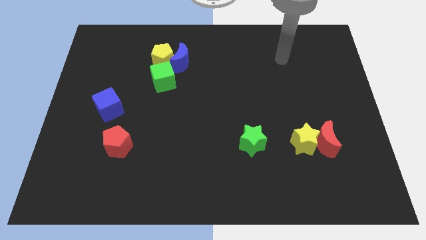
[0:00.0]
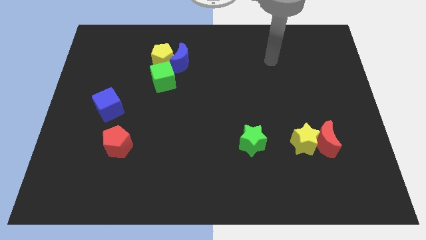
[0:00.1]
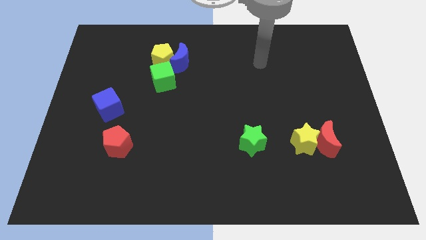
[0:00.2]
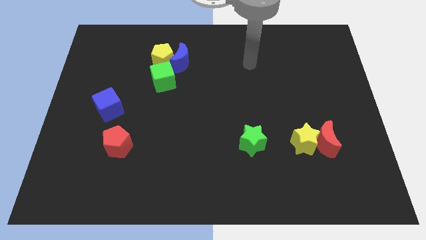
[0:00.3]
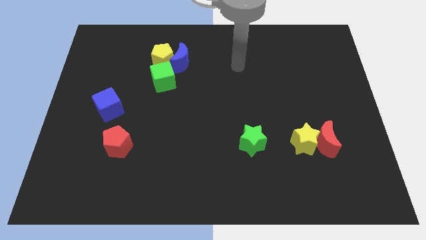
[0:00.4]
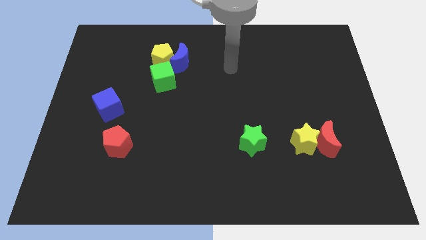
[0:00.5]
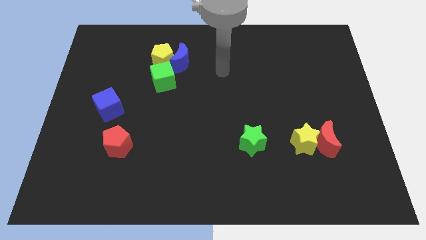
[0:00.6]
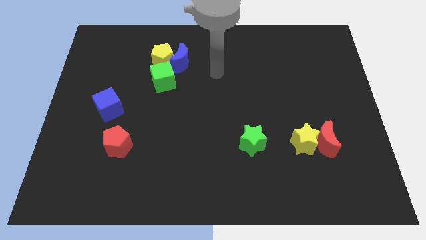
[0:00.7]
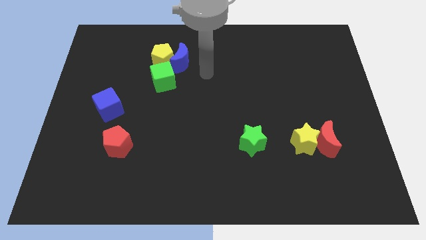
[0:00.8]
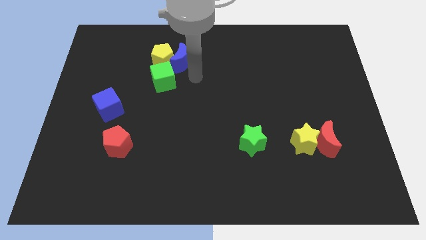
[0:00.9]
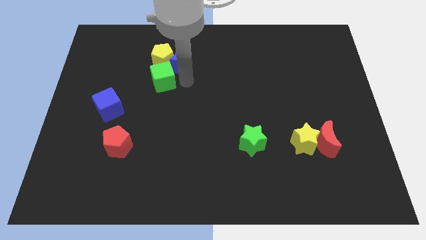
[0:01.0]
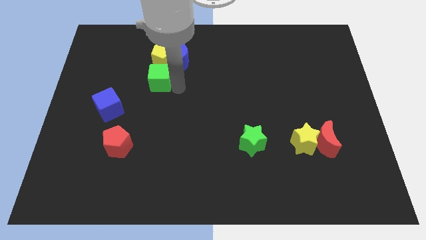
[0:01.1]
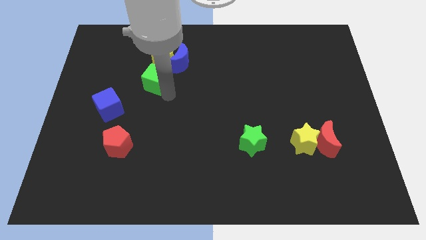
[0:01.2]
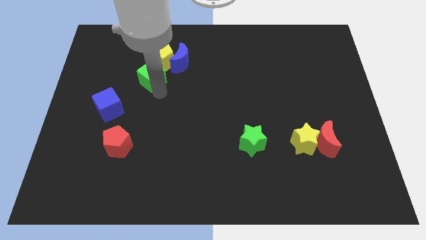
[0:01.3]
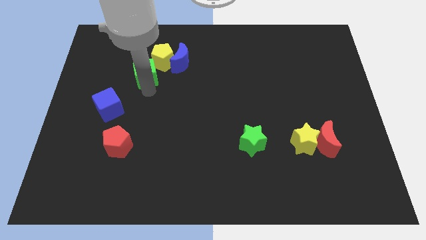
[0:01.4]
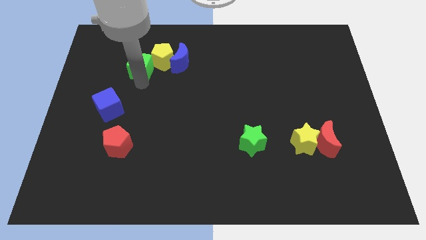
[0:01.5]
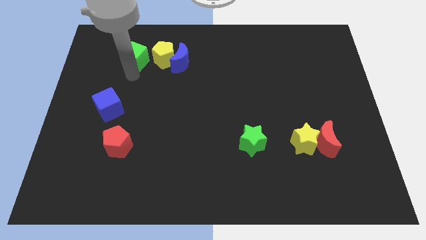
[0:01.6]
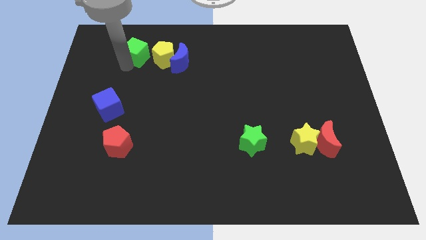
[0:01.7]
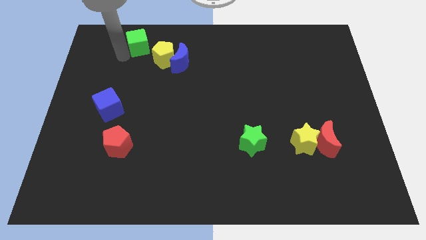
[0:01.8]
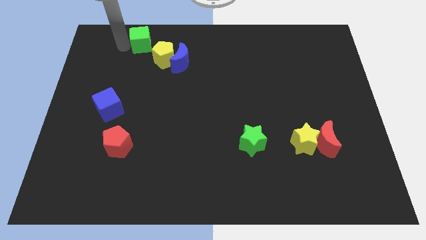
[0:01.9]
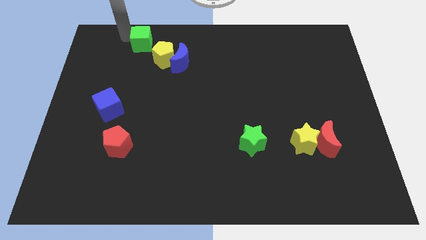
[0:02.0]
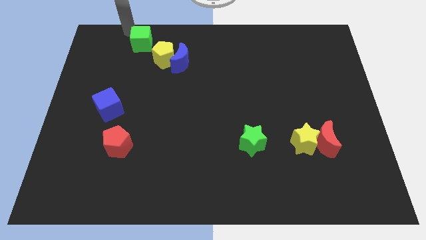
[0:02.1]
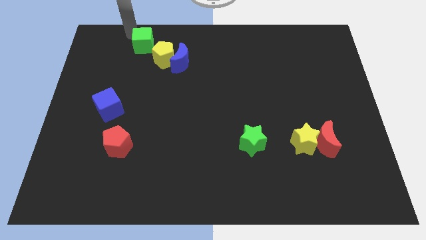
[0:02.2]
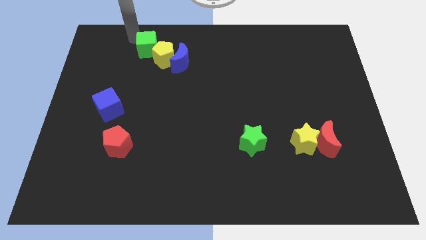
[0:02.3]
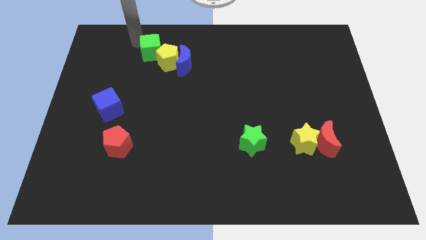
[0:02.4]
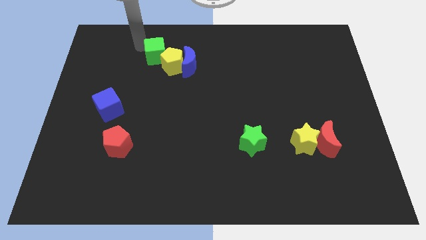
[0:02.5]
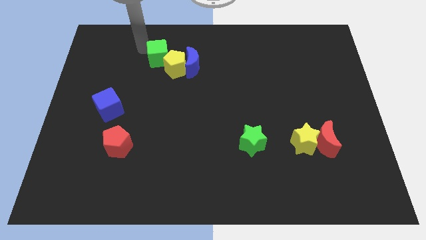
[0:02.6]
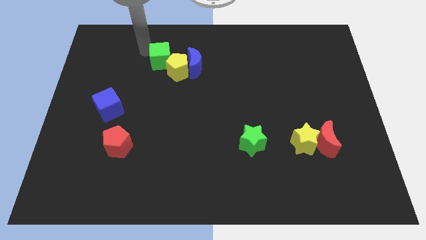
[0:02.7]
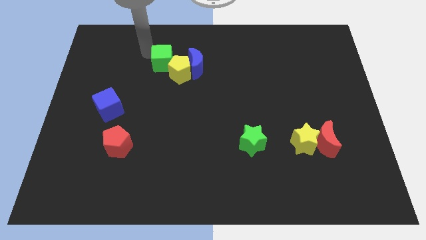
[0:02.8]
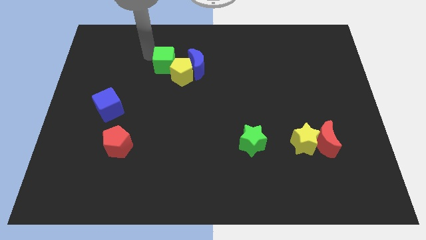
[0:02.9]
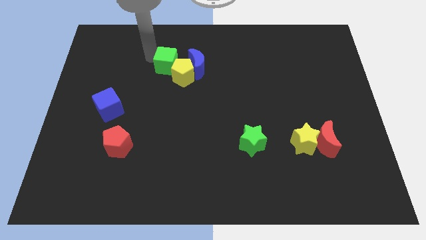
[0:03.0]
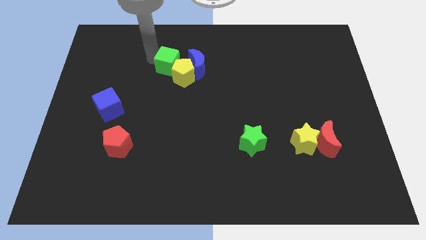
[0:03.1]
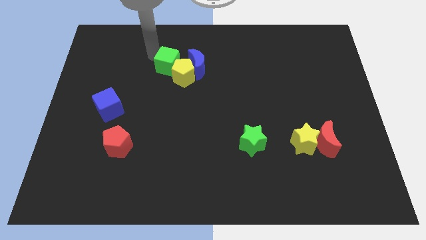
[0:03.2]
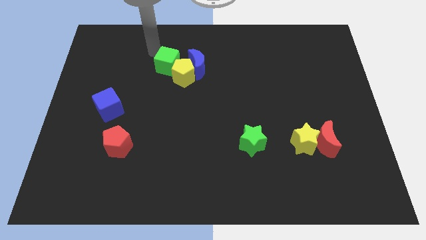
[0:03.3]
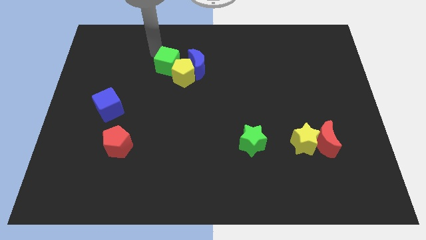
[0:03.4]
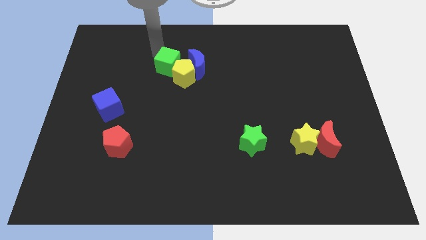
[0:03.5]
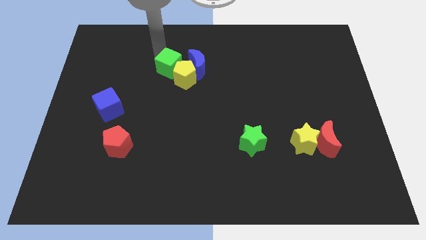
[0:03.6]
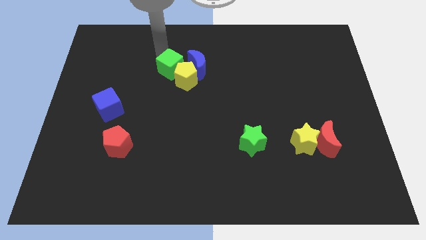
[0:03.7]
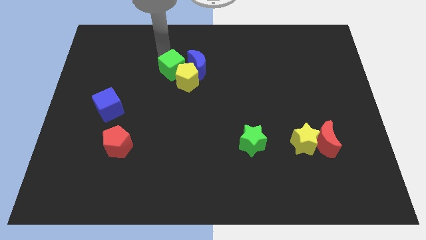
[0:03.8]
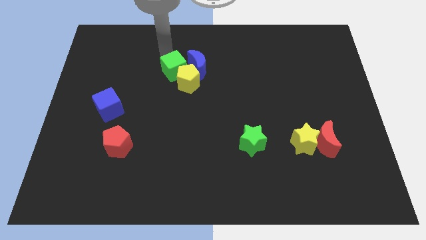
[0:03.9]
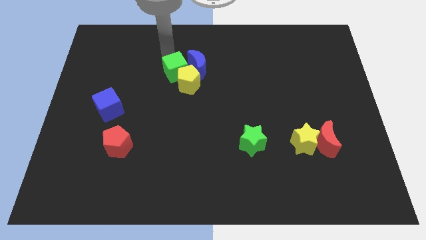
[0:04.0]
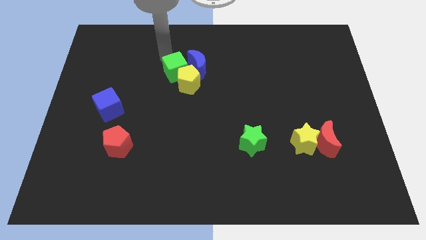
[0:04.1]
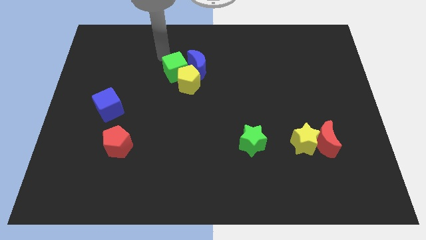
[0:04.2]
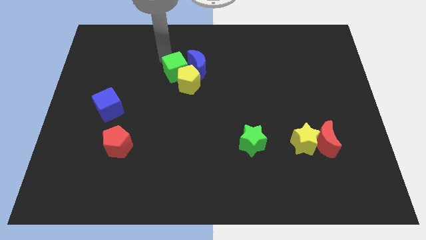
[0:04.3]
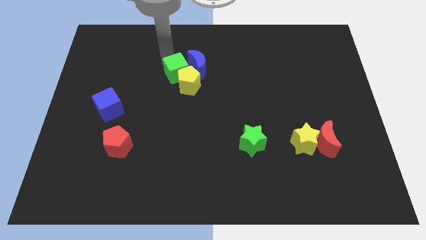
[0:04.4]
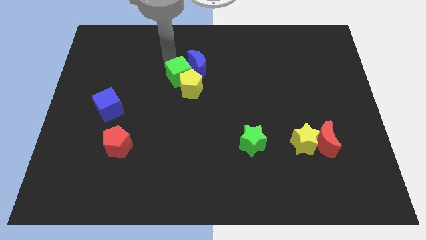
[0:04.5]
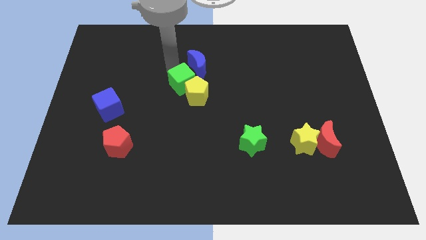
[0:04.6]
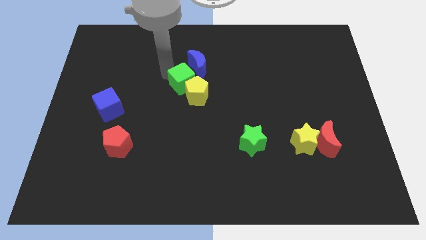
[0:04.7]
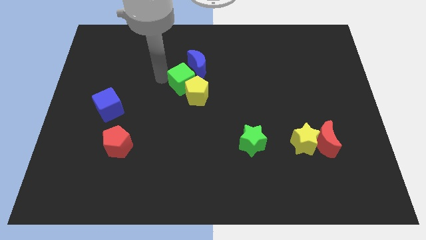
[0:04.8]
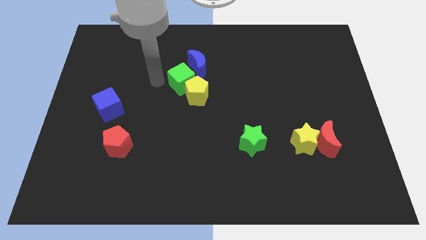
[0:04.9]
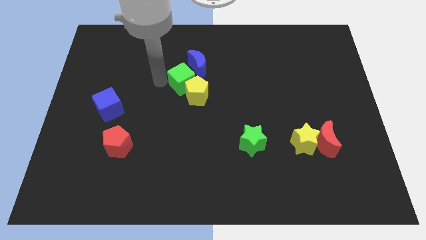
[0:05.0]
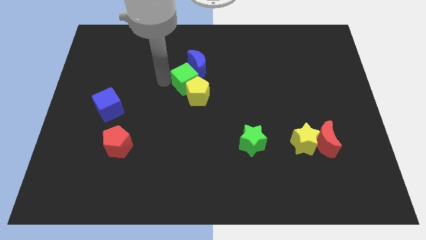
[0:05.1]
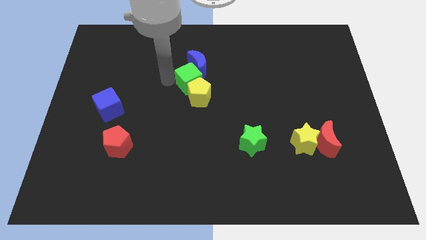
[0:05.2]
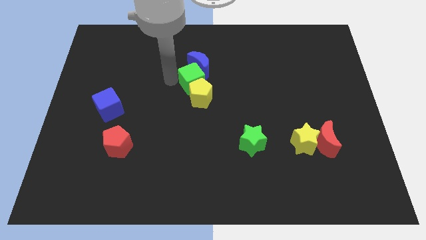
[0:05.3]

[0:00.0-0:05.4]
move the green cube right somewhat

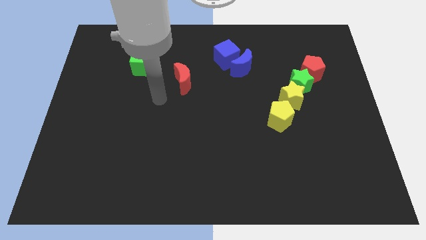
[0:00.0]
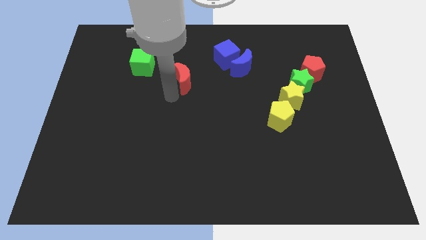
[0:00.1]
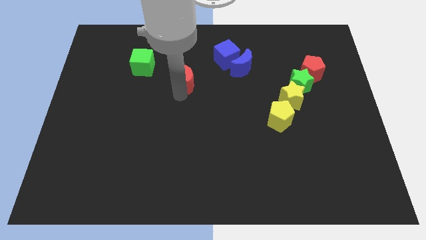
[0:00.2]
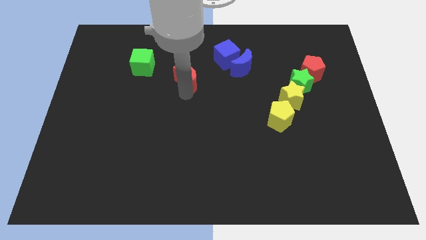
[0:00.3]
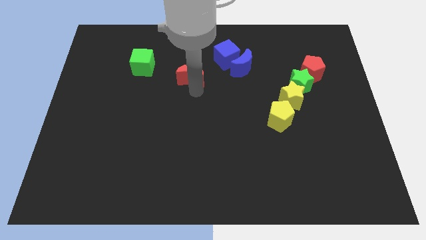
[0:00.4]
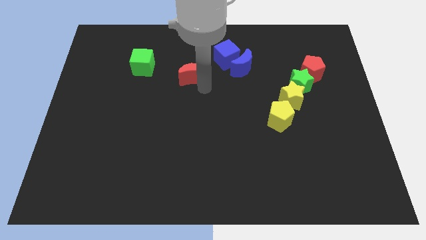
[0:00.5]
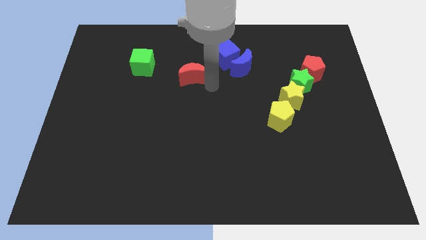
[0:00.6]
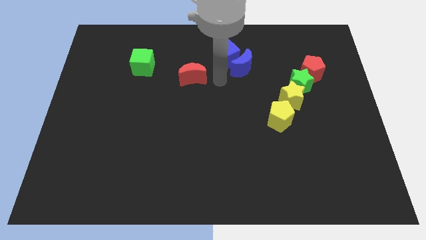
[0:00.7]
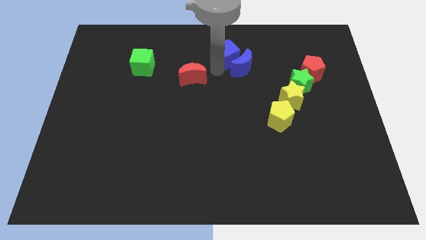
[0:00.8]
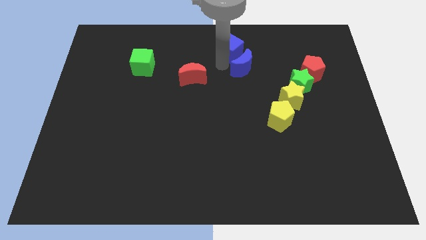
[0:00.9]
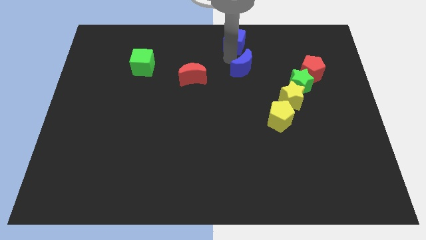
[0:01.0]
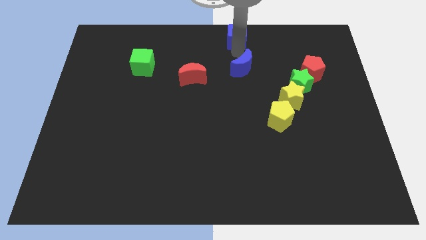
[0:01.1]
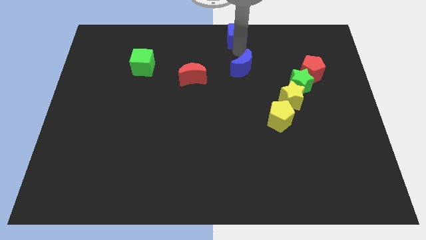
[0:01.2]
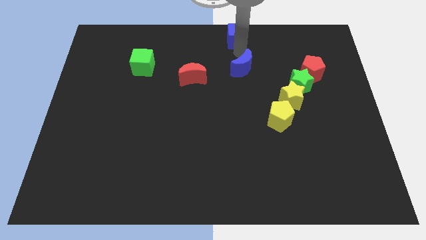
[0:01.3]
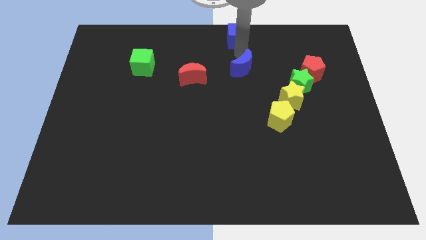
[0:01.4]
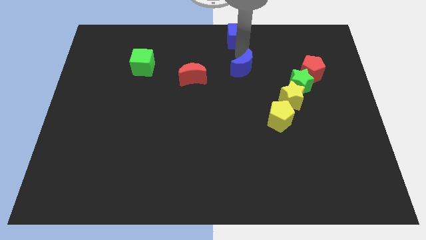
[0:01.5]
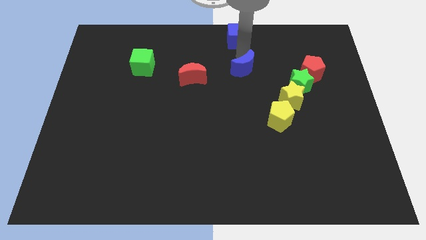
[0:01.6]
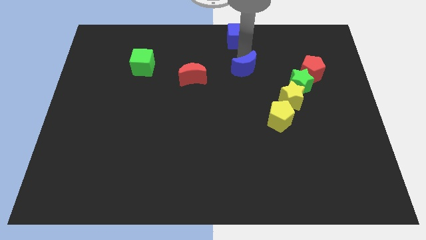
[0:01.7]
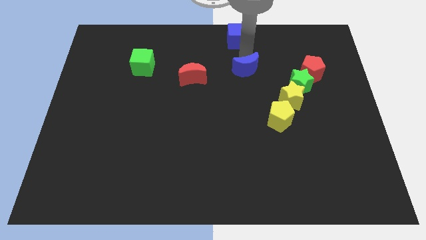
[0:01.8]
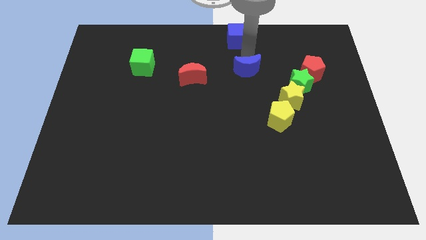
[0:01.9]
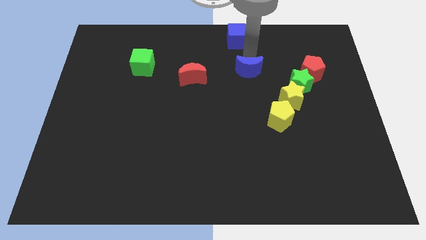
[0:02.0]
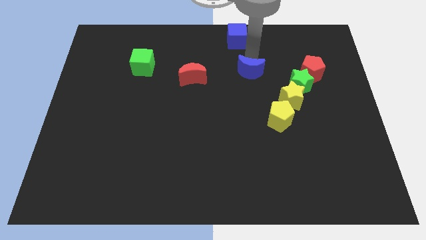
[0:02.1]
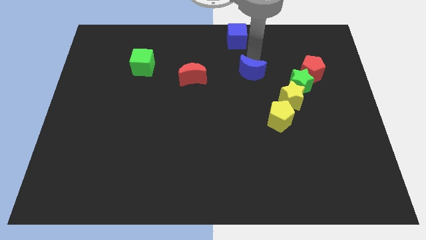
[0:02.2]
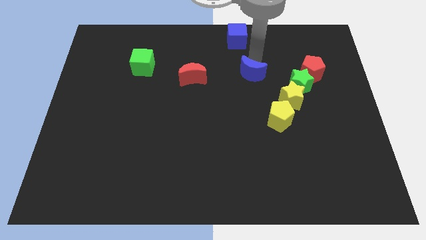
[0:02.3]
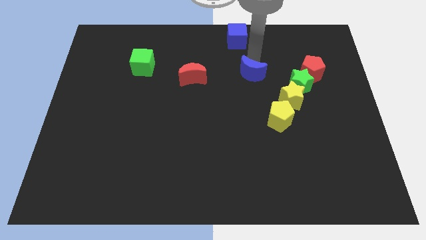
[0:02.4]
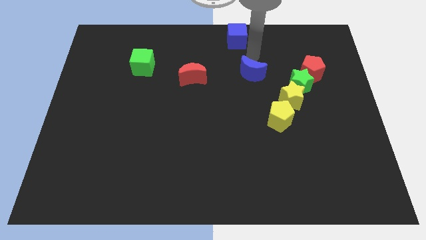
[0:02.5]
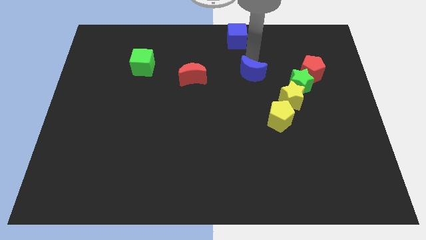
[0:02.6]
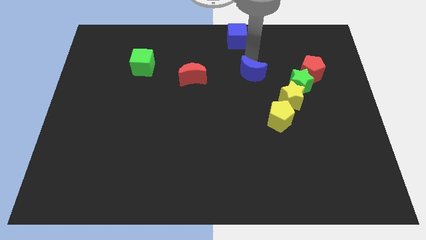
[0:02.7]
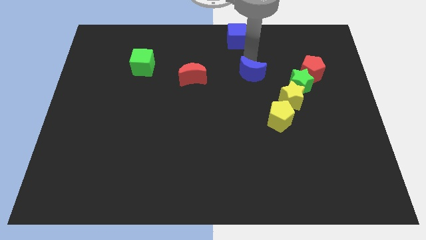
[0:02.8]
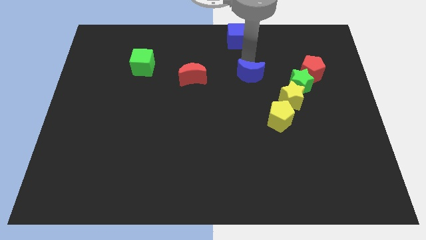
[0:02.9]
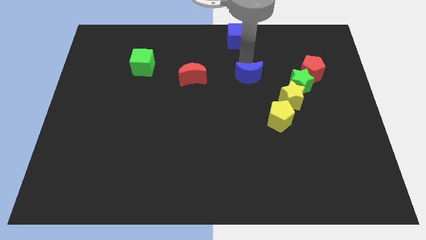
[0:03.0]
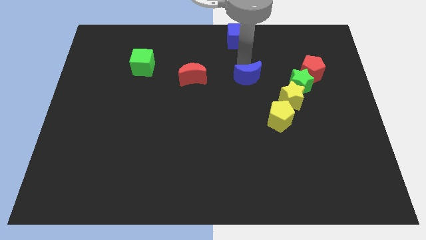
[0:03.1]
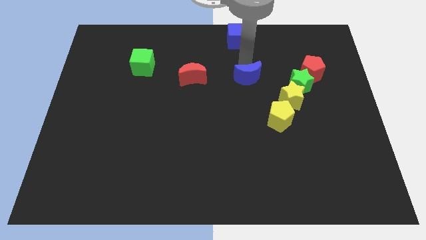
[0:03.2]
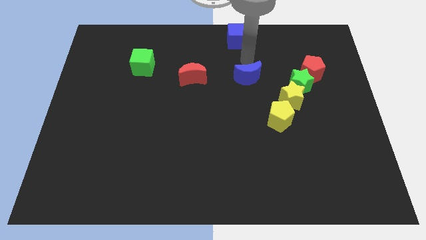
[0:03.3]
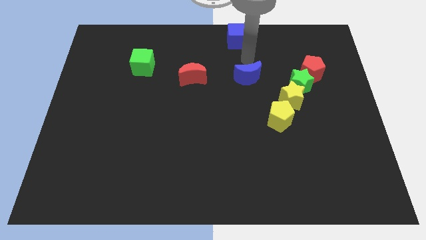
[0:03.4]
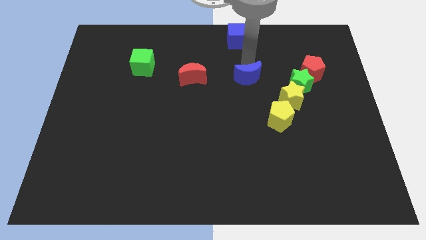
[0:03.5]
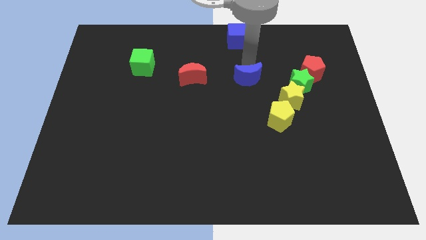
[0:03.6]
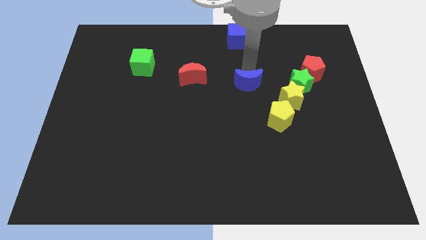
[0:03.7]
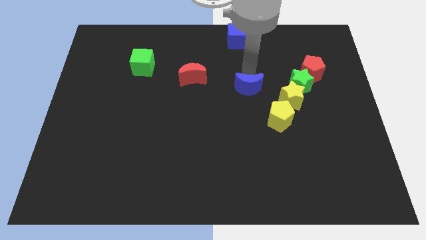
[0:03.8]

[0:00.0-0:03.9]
move the blue moon a little bit downwards
